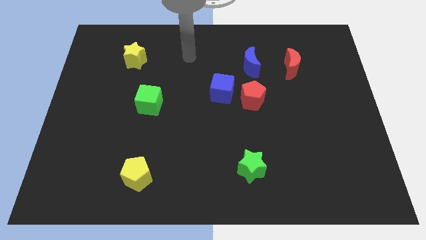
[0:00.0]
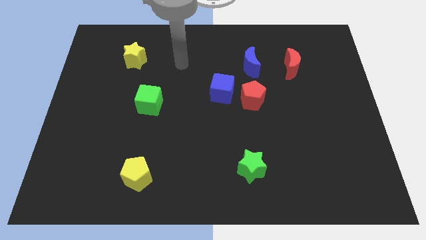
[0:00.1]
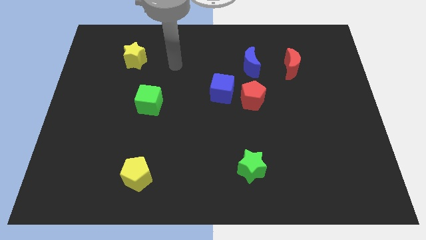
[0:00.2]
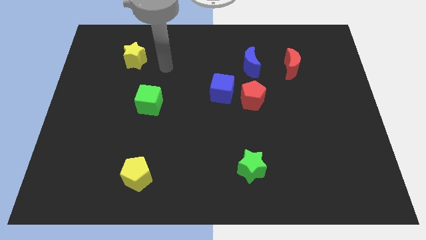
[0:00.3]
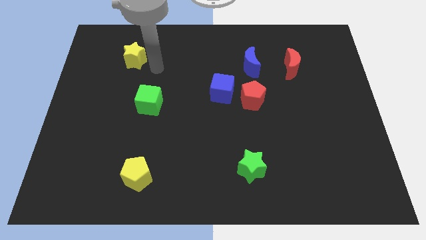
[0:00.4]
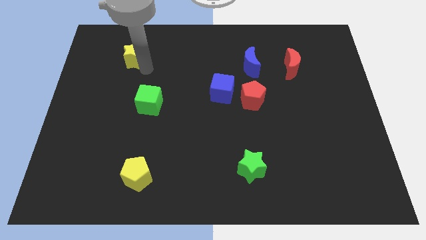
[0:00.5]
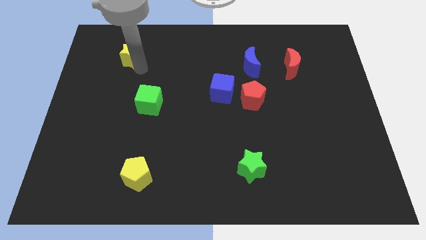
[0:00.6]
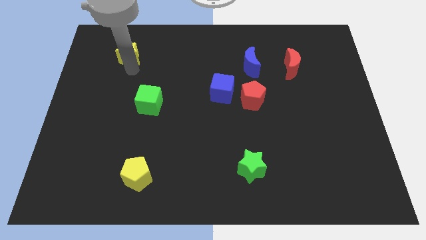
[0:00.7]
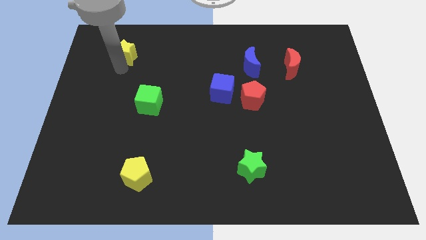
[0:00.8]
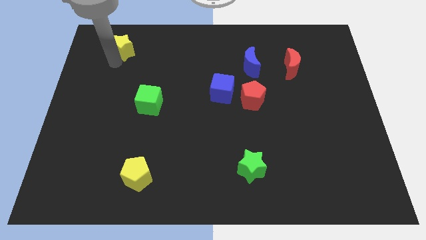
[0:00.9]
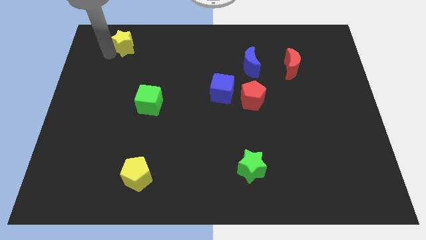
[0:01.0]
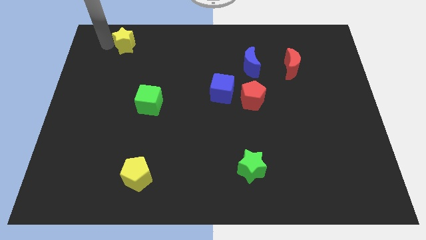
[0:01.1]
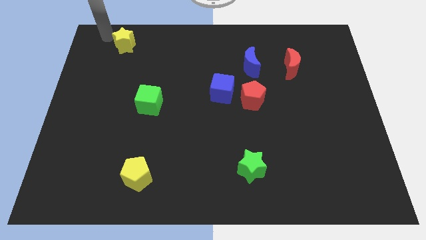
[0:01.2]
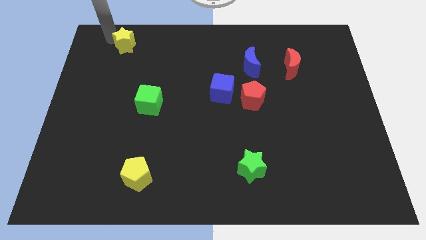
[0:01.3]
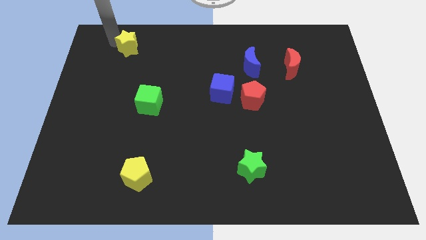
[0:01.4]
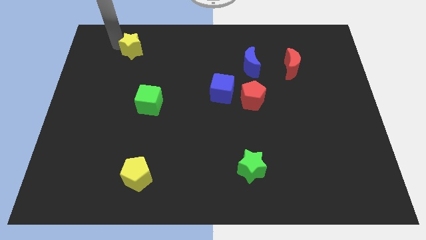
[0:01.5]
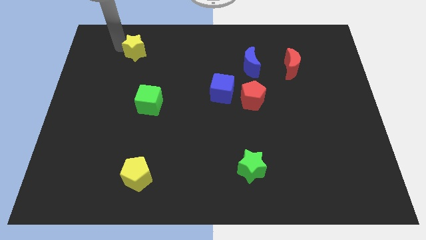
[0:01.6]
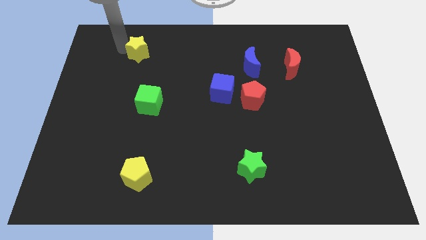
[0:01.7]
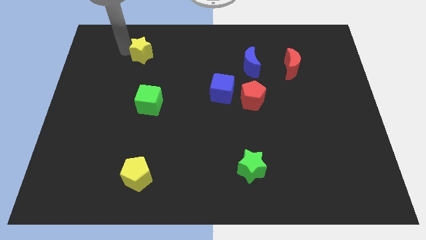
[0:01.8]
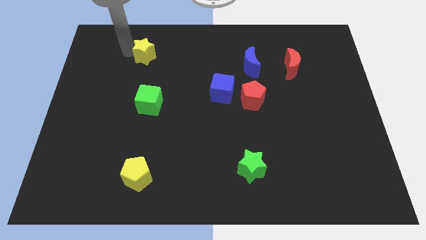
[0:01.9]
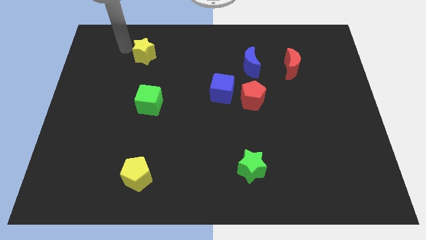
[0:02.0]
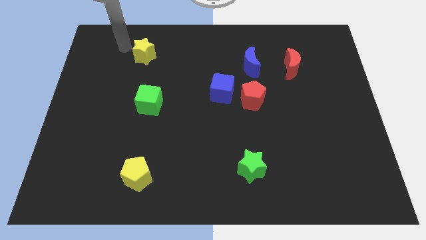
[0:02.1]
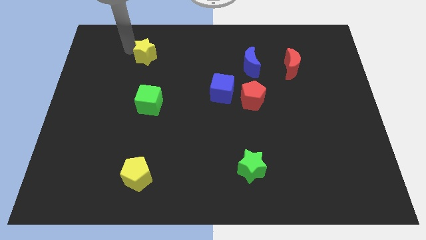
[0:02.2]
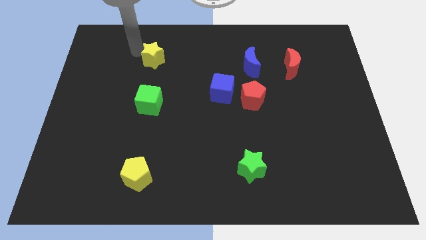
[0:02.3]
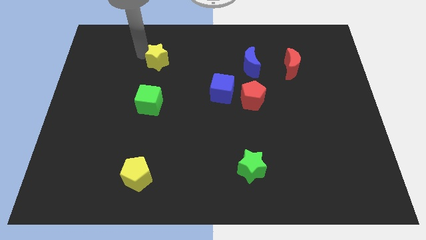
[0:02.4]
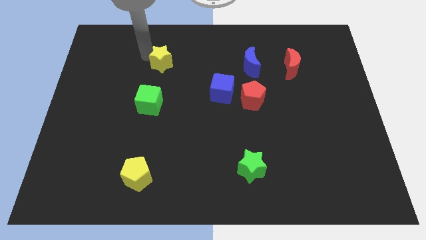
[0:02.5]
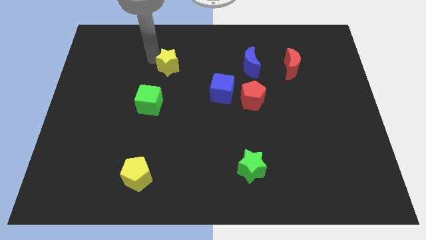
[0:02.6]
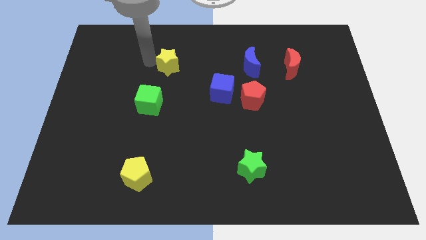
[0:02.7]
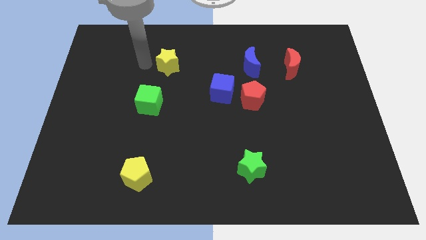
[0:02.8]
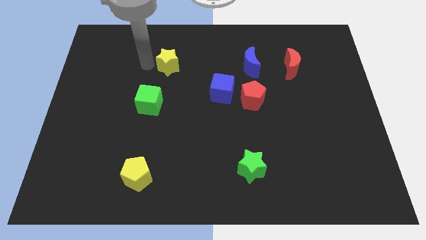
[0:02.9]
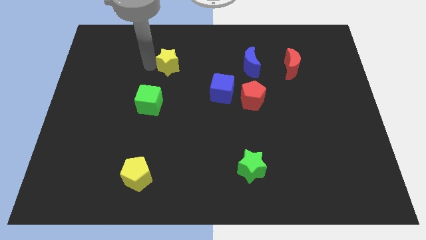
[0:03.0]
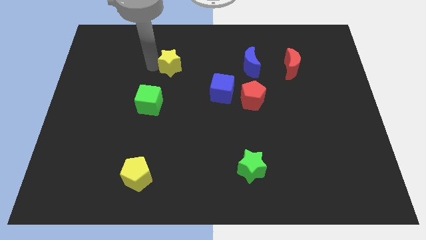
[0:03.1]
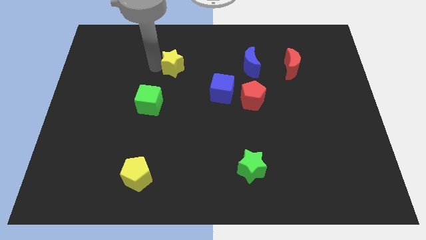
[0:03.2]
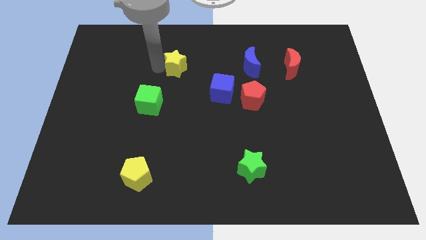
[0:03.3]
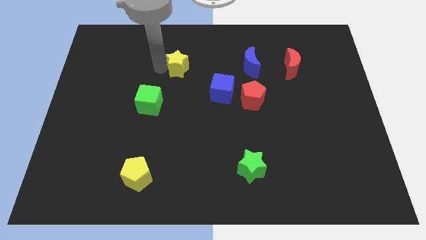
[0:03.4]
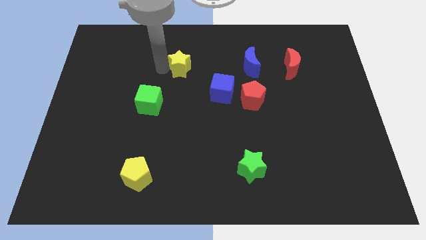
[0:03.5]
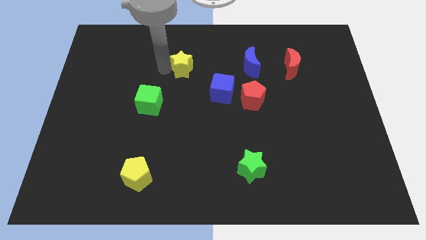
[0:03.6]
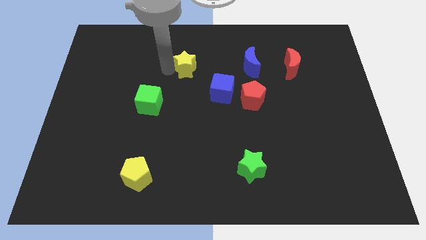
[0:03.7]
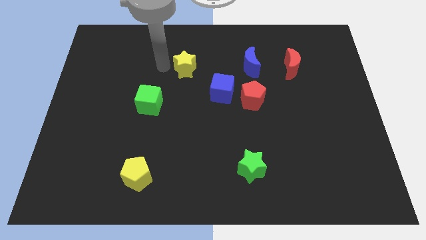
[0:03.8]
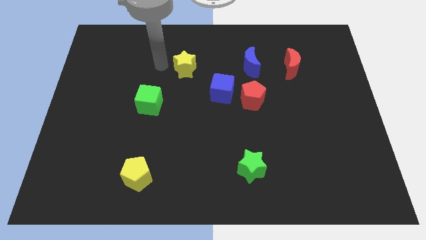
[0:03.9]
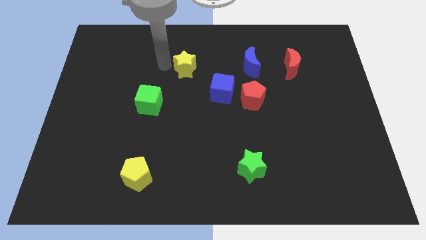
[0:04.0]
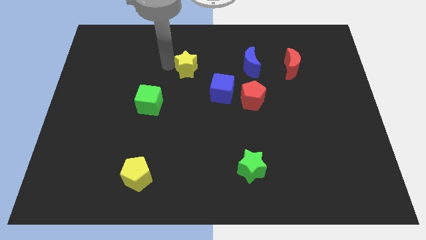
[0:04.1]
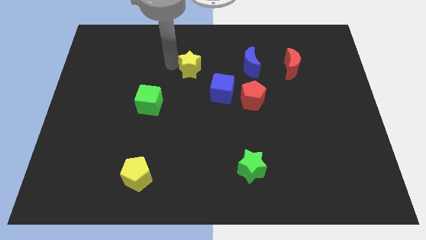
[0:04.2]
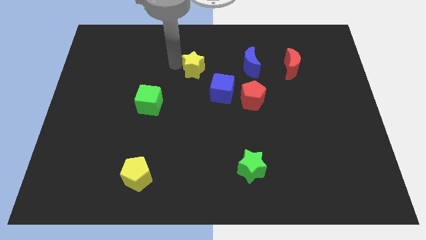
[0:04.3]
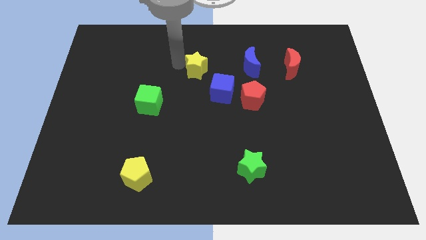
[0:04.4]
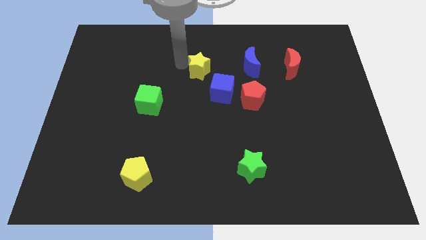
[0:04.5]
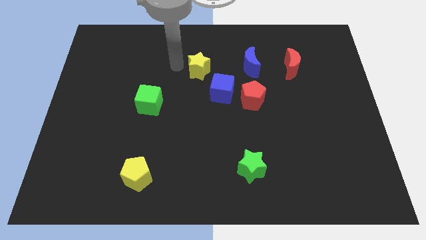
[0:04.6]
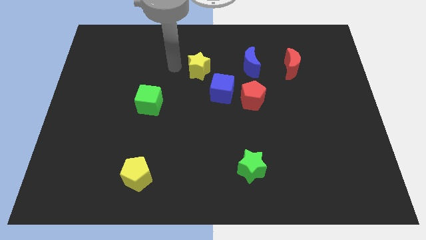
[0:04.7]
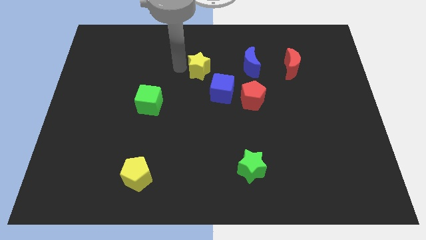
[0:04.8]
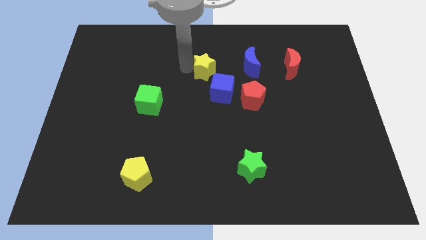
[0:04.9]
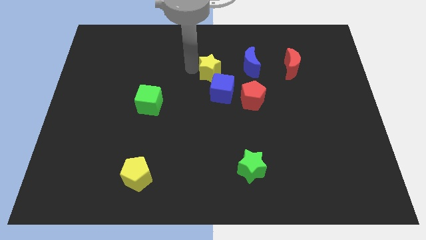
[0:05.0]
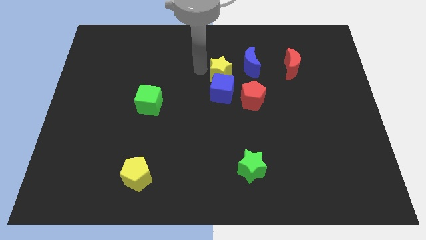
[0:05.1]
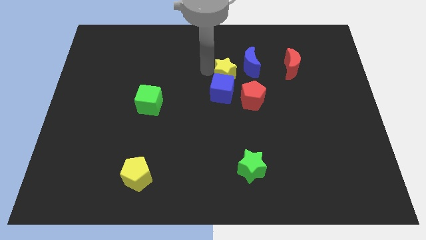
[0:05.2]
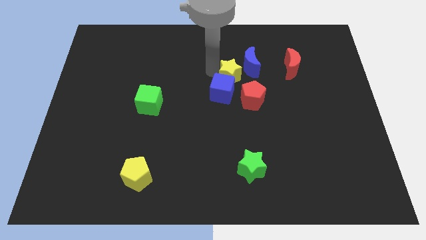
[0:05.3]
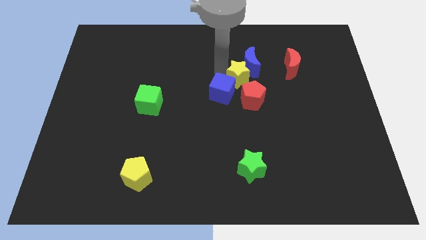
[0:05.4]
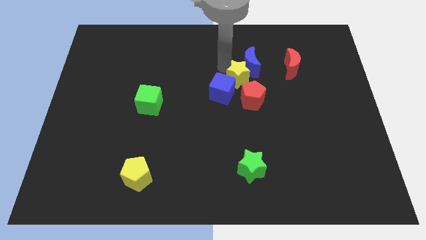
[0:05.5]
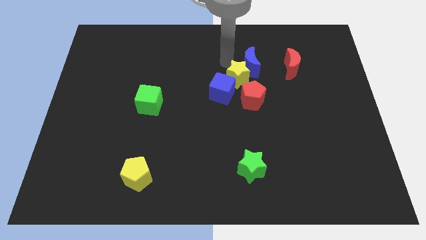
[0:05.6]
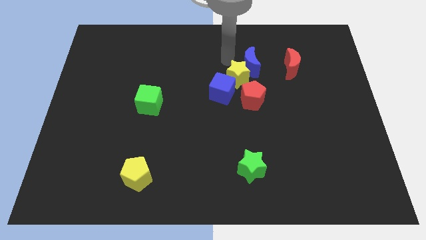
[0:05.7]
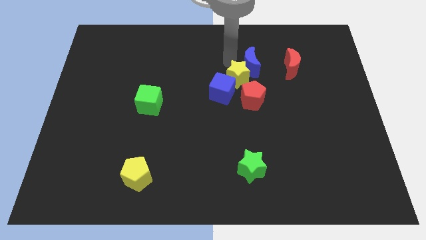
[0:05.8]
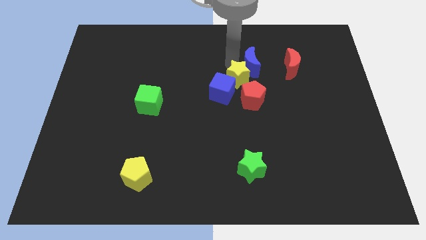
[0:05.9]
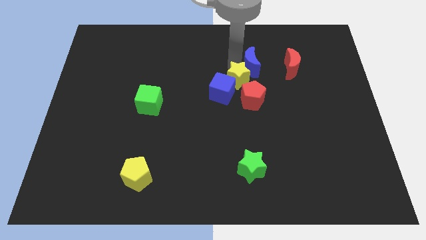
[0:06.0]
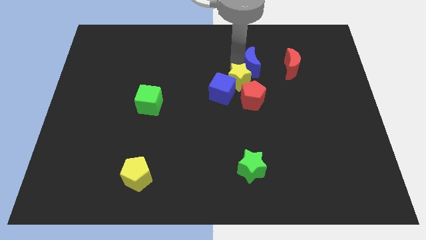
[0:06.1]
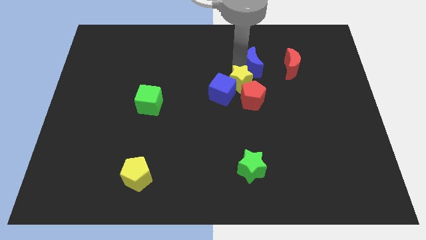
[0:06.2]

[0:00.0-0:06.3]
push the yellow star to the red pentagon
